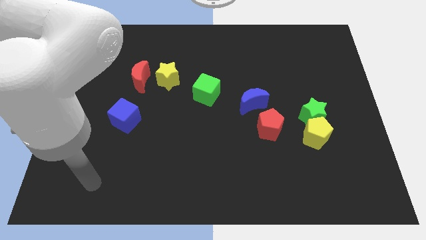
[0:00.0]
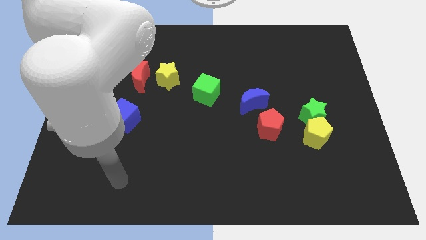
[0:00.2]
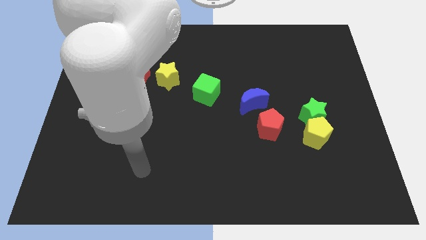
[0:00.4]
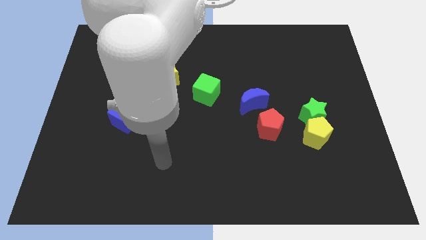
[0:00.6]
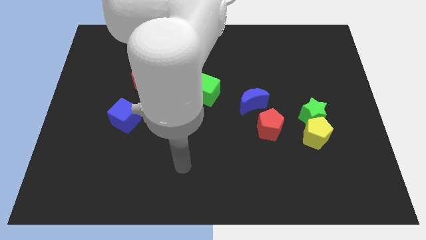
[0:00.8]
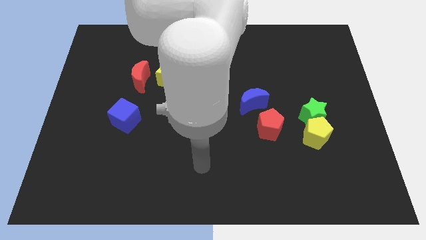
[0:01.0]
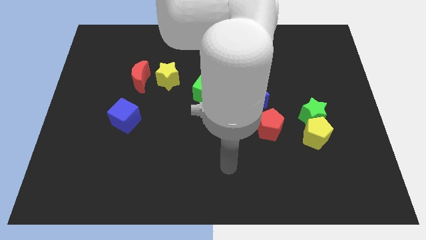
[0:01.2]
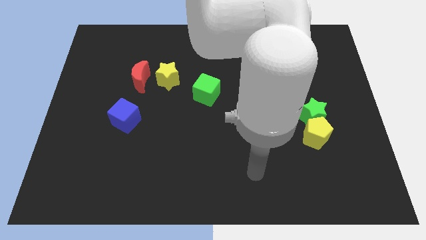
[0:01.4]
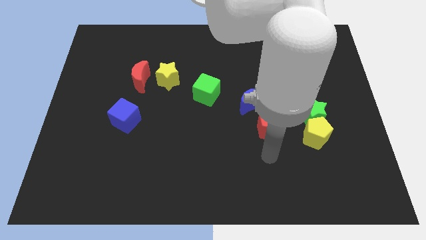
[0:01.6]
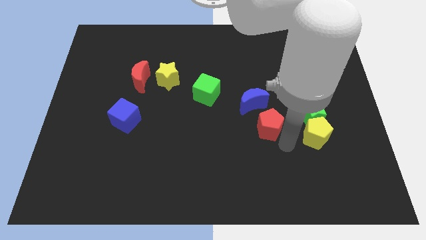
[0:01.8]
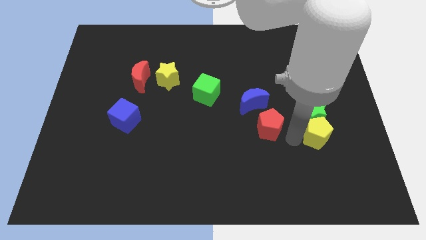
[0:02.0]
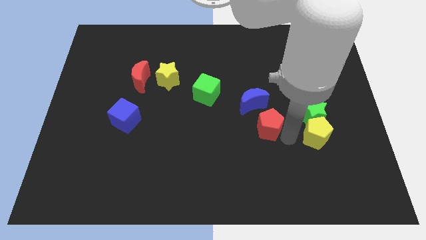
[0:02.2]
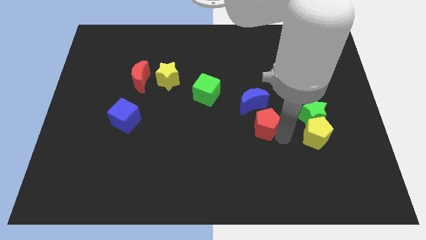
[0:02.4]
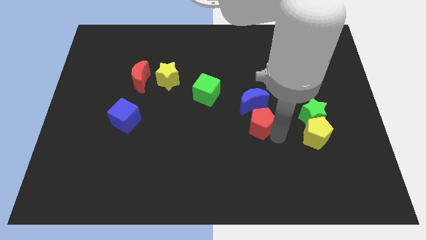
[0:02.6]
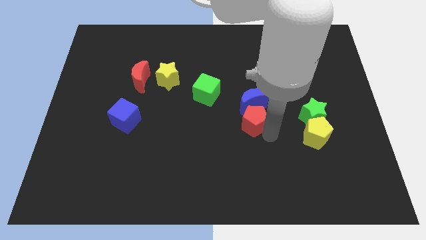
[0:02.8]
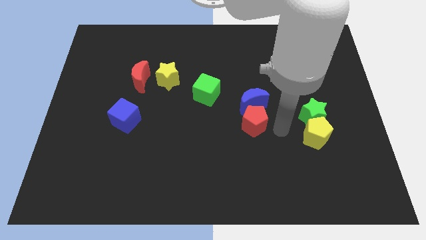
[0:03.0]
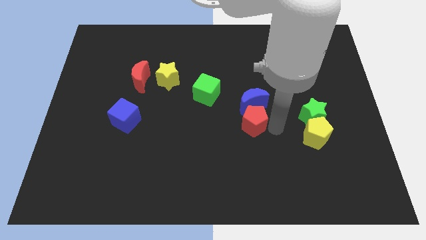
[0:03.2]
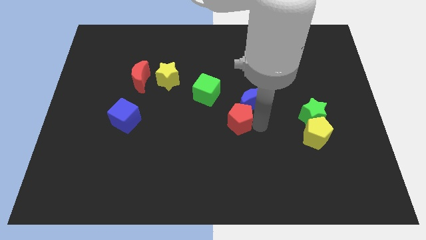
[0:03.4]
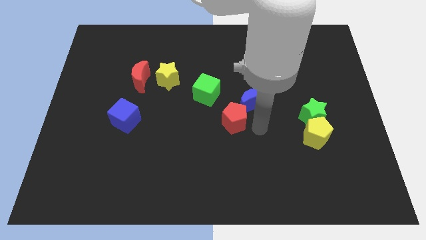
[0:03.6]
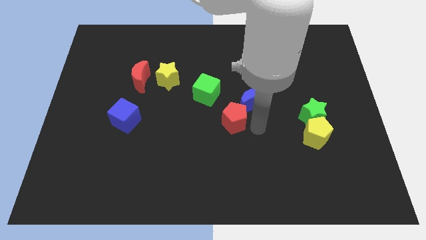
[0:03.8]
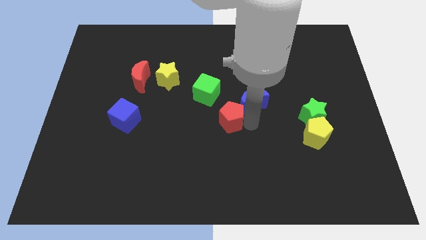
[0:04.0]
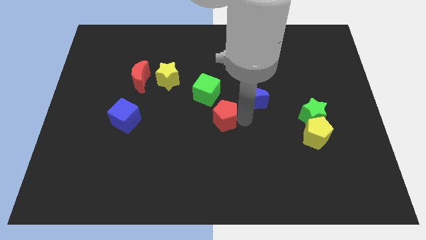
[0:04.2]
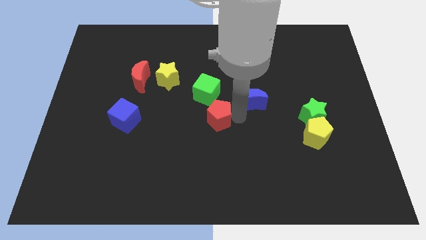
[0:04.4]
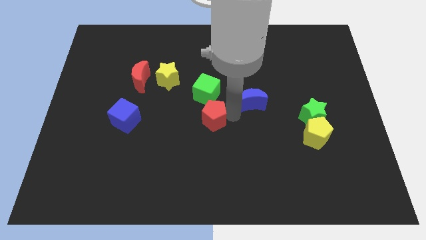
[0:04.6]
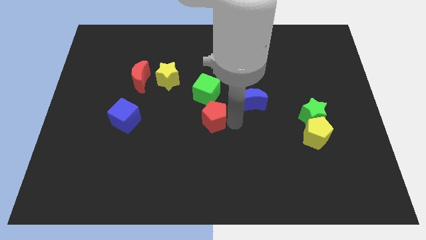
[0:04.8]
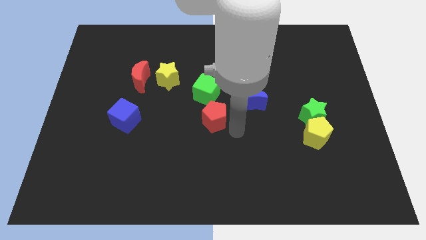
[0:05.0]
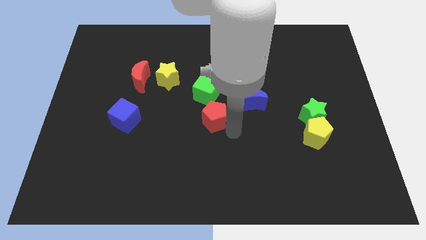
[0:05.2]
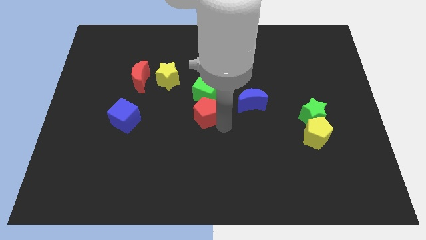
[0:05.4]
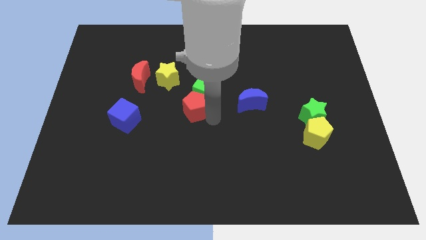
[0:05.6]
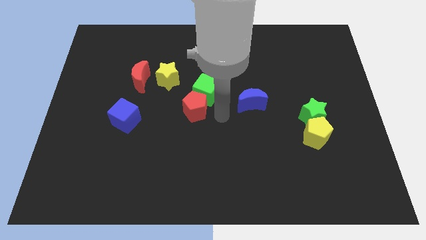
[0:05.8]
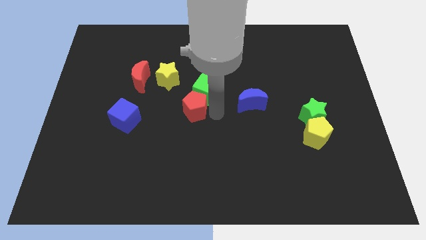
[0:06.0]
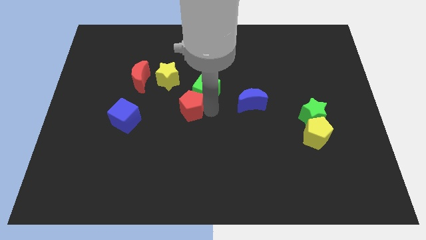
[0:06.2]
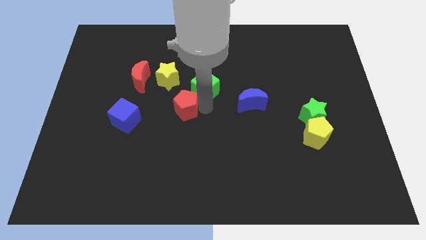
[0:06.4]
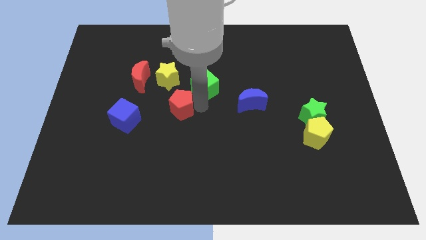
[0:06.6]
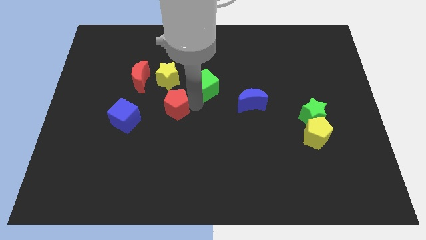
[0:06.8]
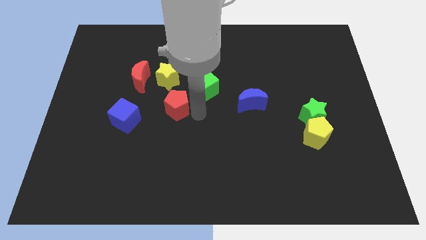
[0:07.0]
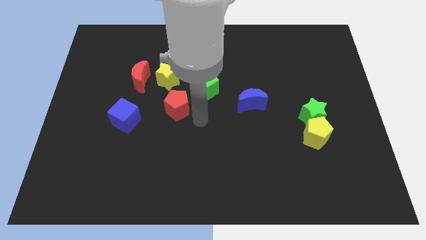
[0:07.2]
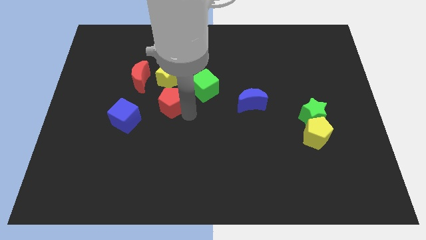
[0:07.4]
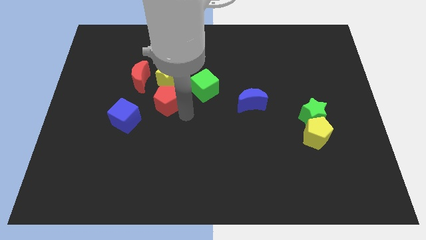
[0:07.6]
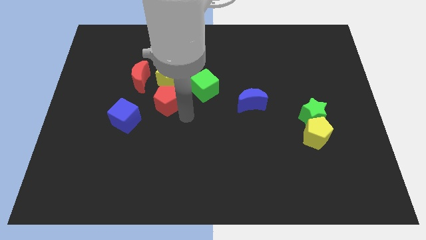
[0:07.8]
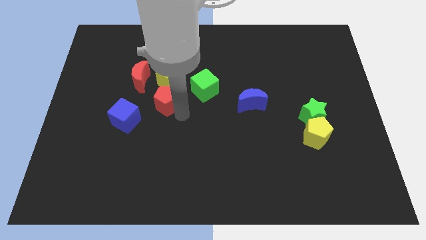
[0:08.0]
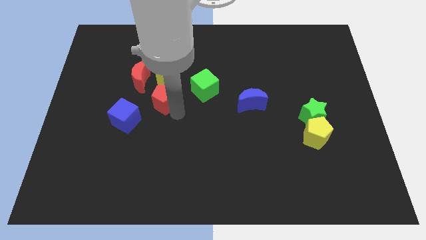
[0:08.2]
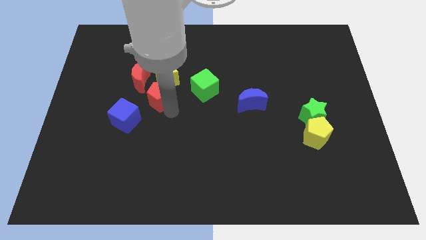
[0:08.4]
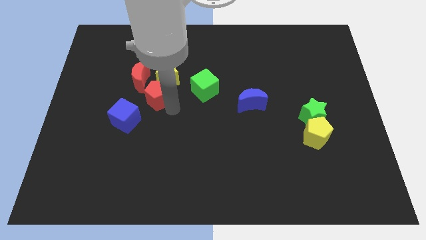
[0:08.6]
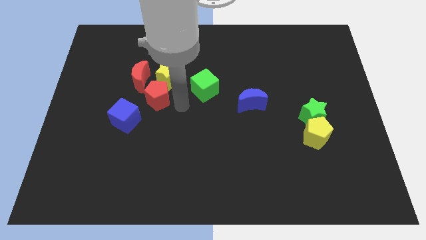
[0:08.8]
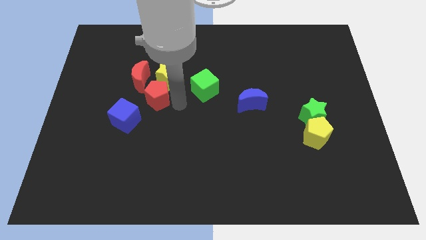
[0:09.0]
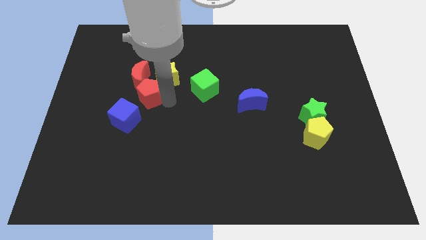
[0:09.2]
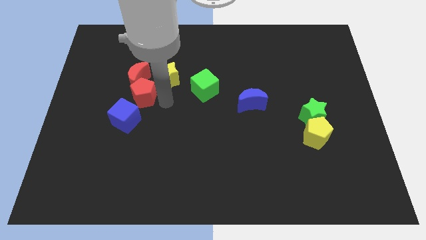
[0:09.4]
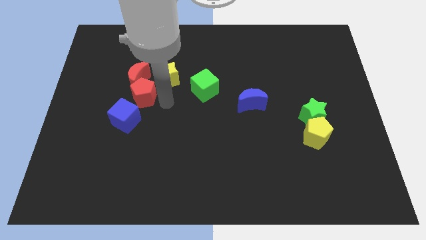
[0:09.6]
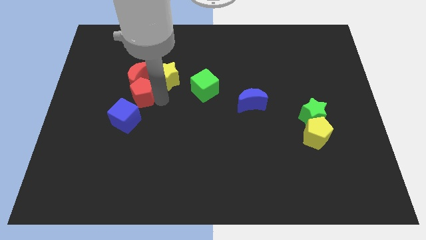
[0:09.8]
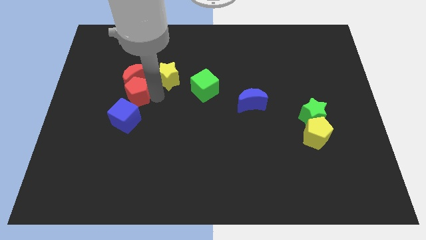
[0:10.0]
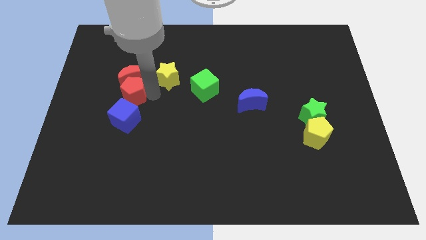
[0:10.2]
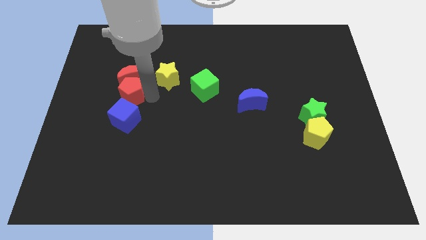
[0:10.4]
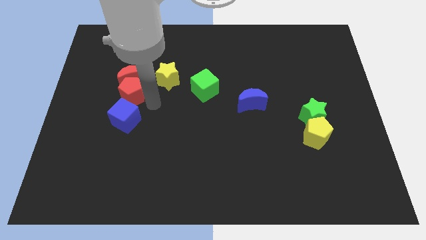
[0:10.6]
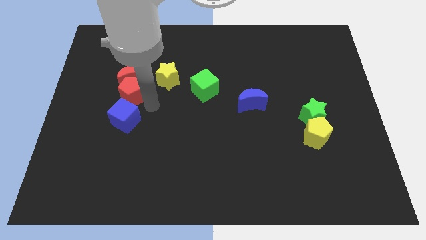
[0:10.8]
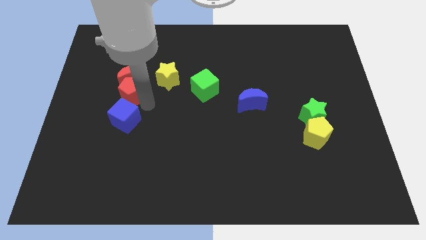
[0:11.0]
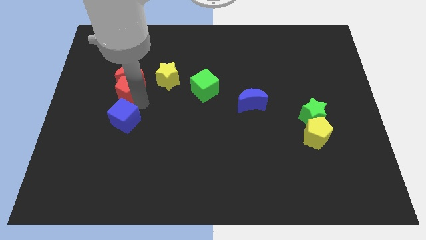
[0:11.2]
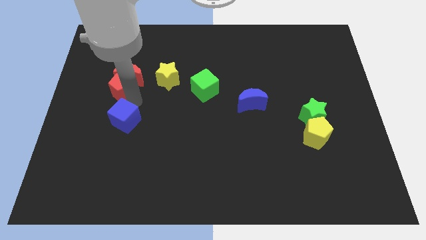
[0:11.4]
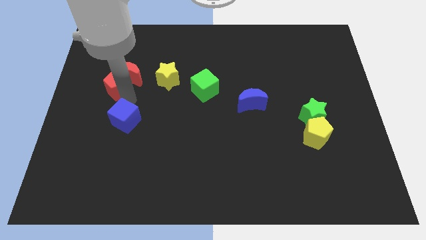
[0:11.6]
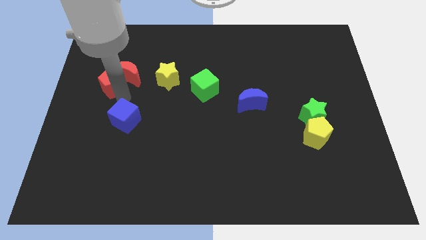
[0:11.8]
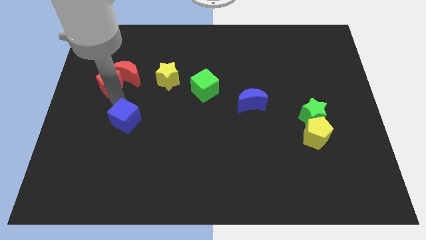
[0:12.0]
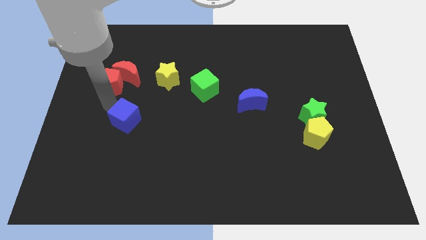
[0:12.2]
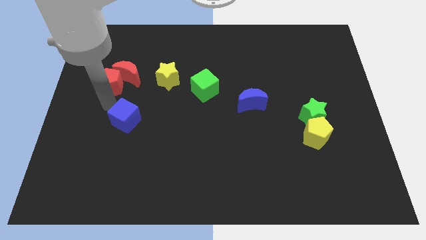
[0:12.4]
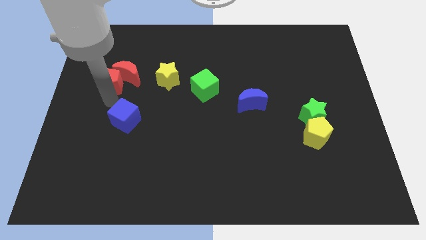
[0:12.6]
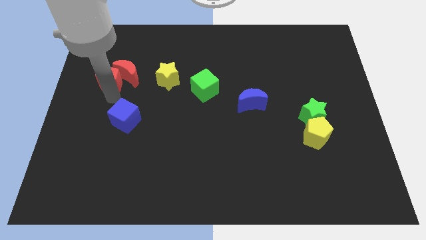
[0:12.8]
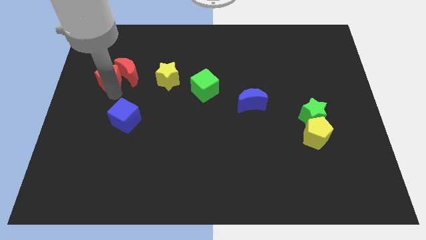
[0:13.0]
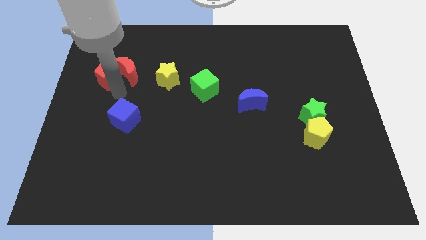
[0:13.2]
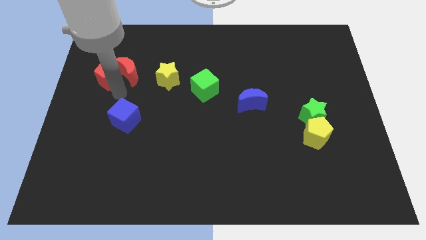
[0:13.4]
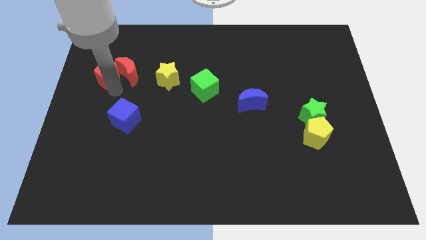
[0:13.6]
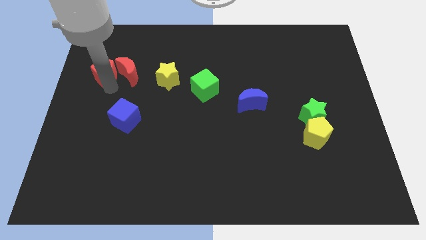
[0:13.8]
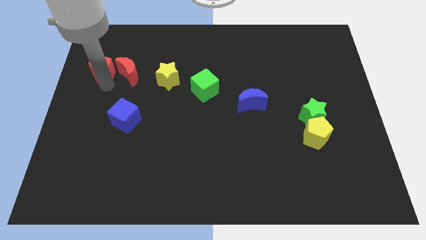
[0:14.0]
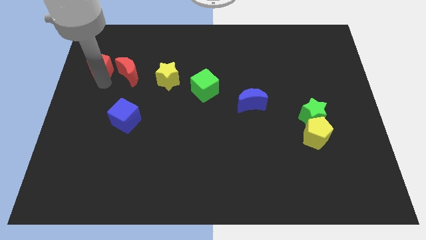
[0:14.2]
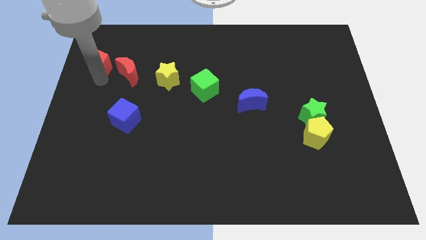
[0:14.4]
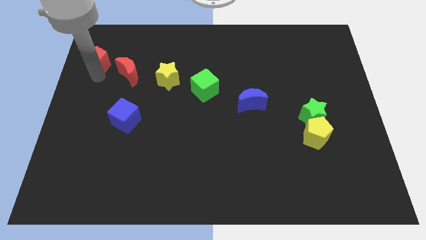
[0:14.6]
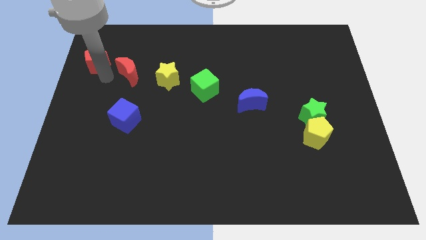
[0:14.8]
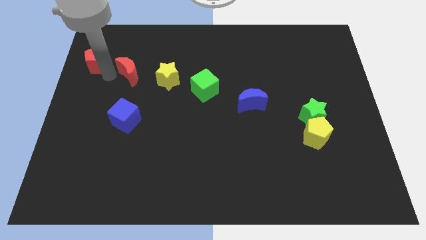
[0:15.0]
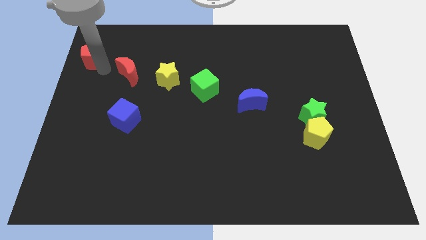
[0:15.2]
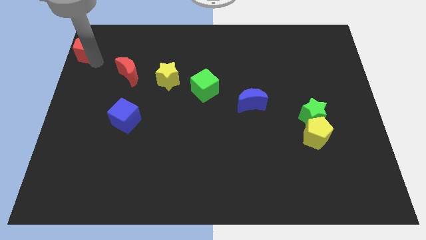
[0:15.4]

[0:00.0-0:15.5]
move the red pentagon to the upper left corner
